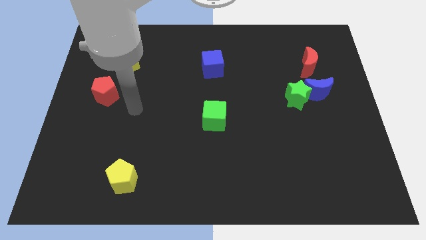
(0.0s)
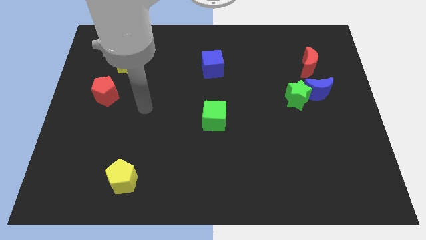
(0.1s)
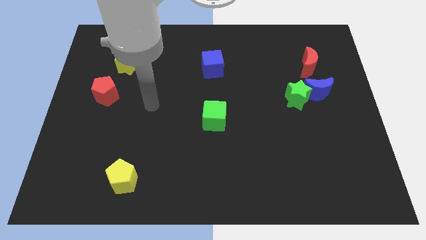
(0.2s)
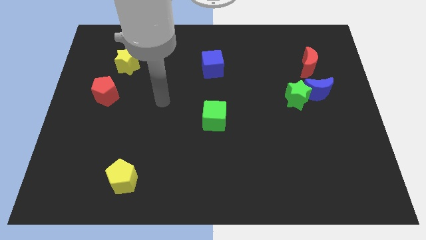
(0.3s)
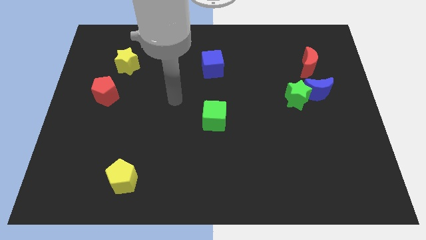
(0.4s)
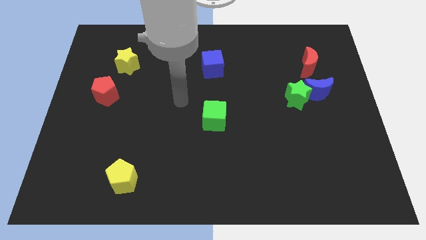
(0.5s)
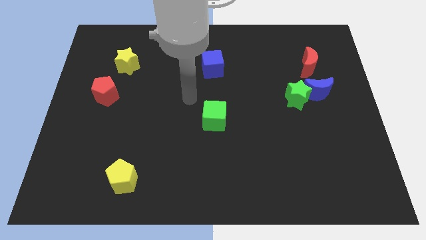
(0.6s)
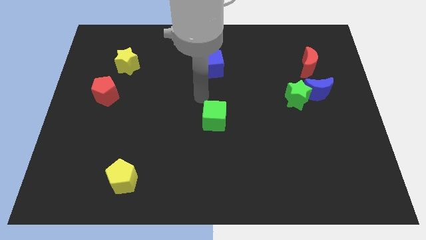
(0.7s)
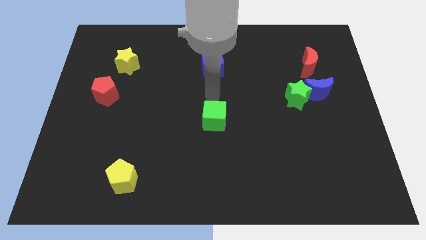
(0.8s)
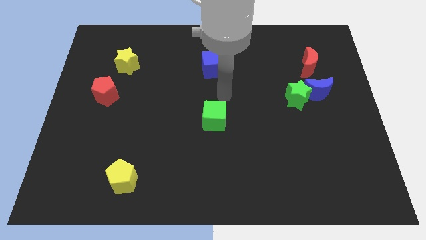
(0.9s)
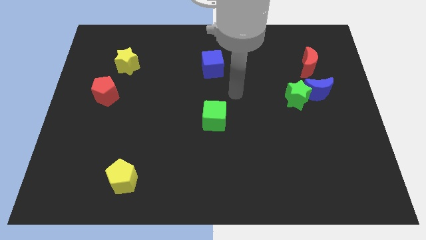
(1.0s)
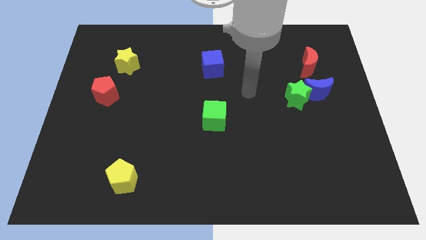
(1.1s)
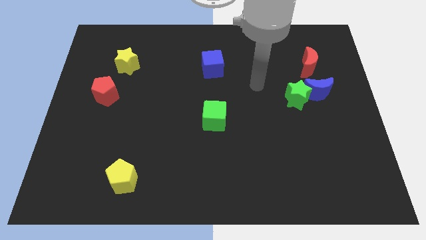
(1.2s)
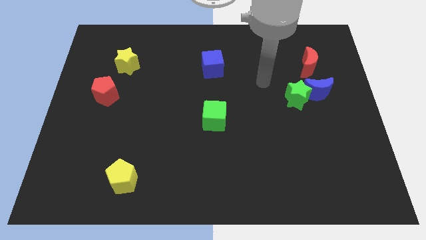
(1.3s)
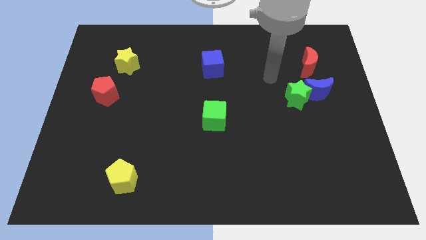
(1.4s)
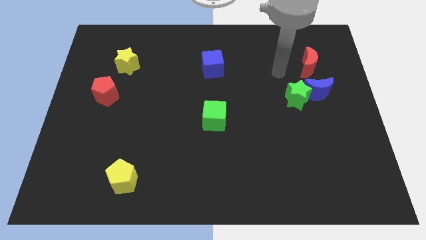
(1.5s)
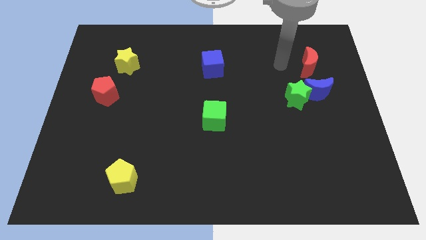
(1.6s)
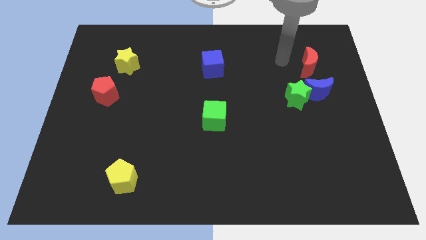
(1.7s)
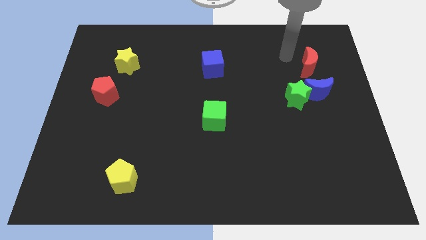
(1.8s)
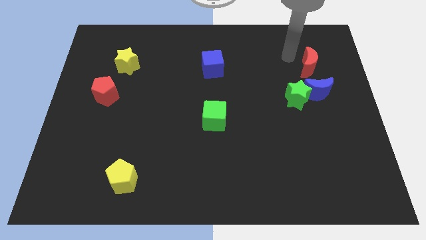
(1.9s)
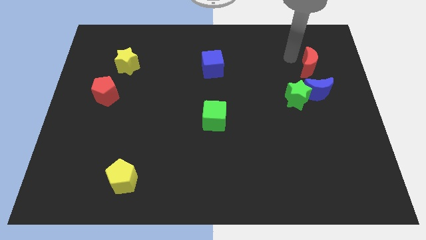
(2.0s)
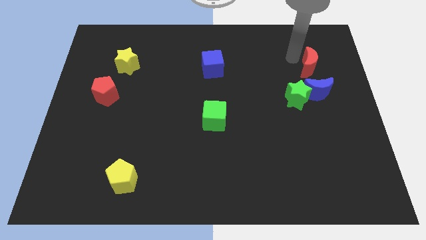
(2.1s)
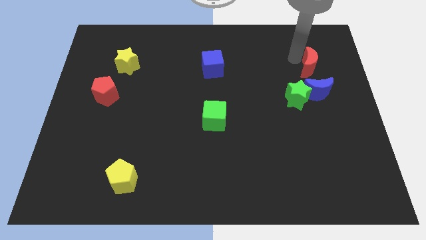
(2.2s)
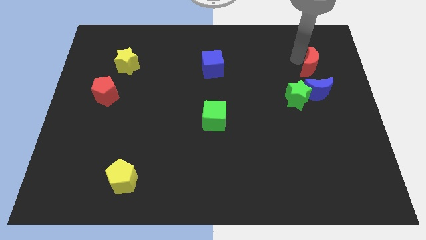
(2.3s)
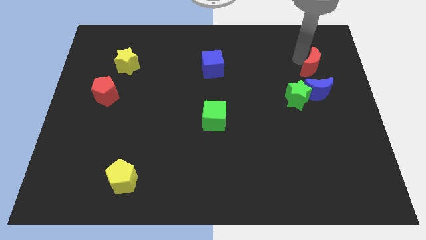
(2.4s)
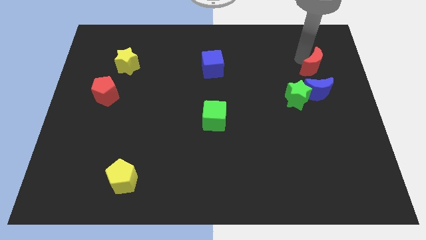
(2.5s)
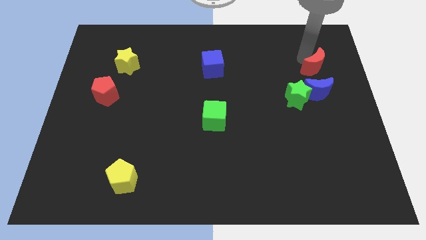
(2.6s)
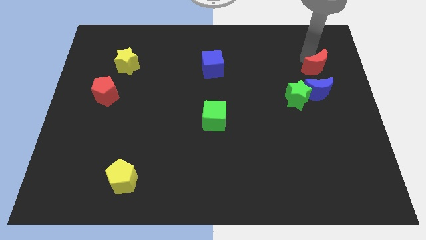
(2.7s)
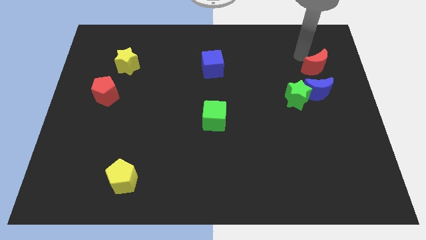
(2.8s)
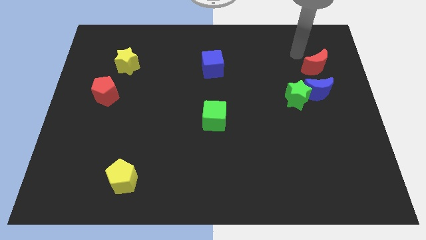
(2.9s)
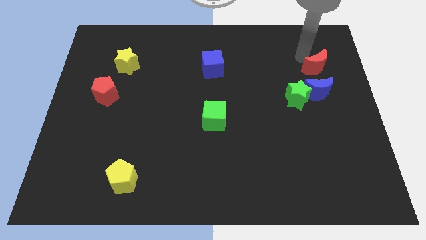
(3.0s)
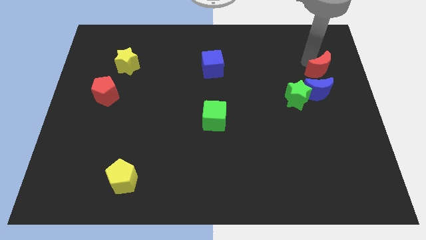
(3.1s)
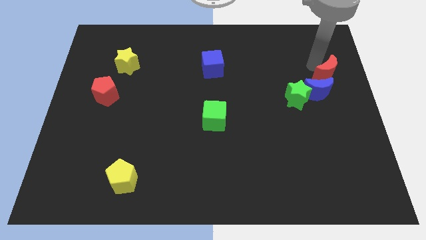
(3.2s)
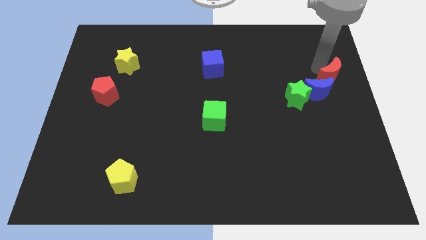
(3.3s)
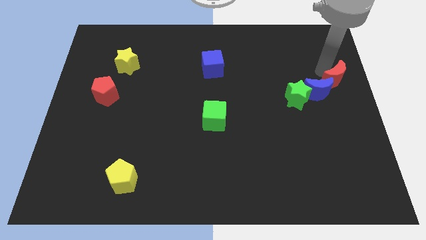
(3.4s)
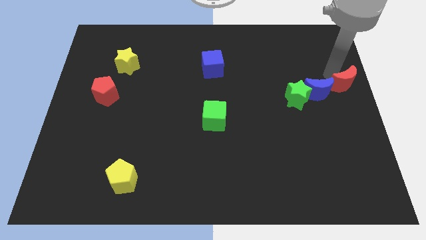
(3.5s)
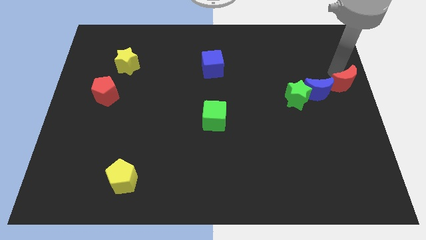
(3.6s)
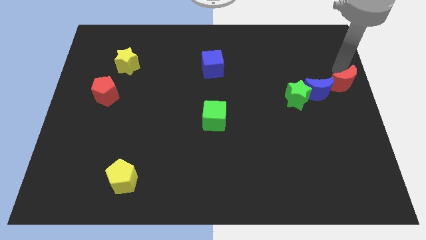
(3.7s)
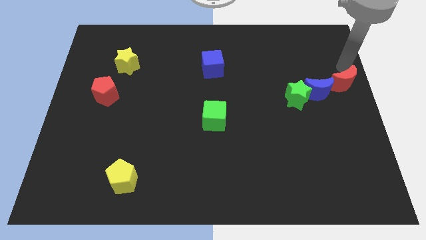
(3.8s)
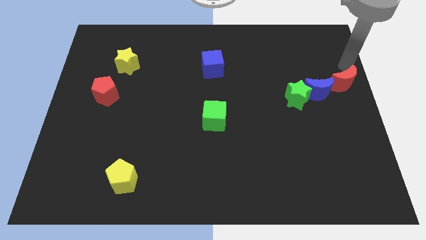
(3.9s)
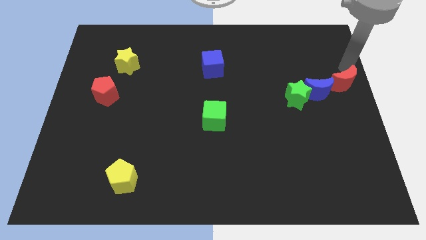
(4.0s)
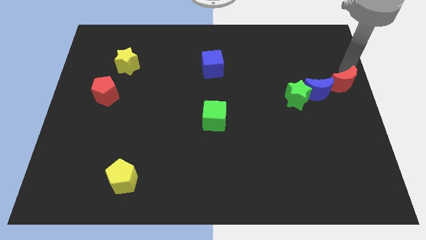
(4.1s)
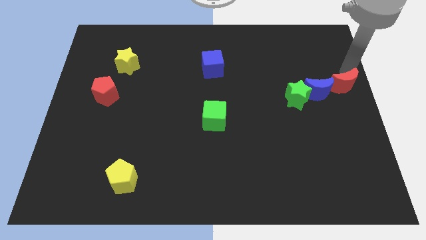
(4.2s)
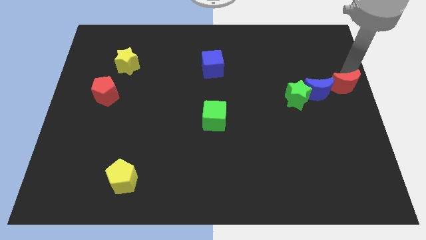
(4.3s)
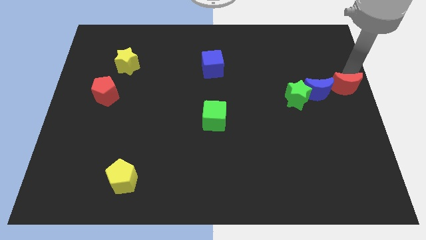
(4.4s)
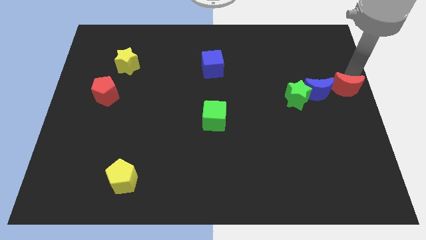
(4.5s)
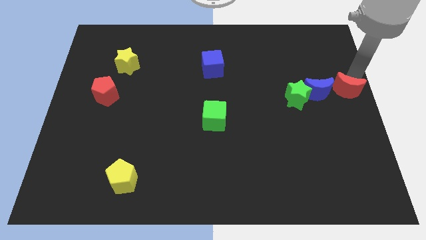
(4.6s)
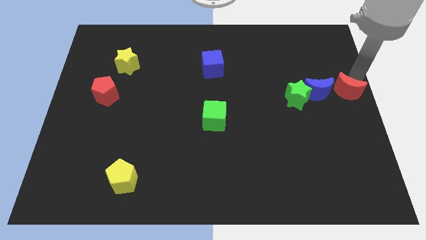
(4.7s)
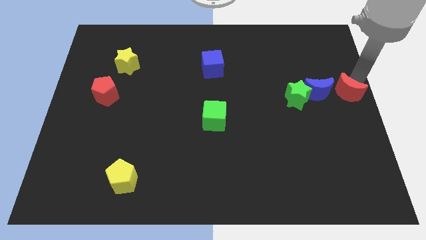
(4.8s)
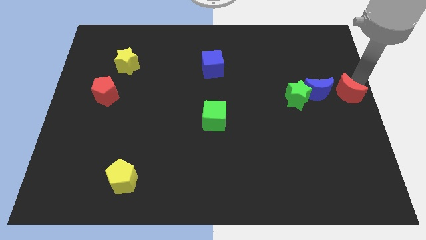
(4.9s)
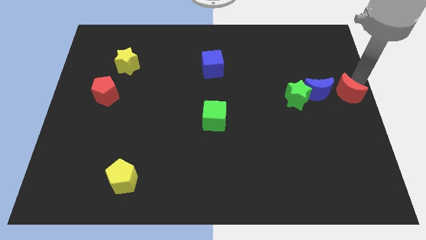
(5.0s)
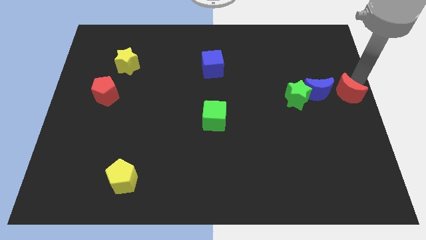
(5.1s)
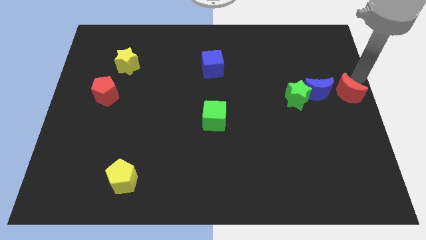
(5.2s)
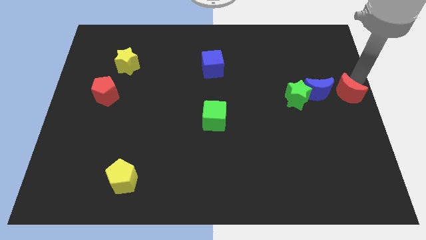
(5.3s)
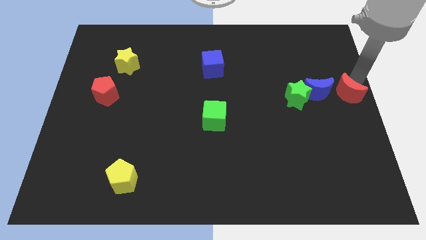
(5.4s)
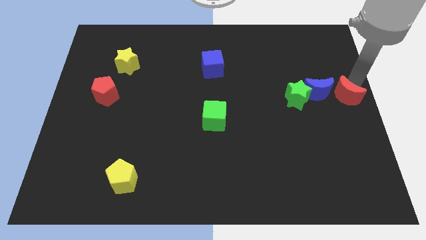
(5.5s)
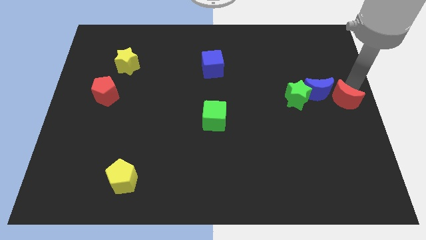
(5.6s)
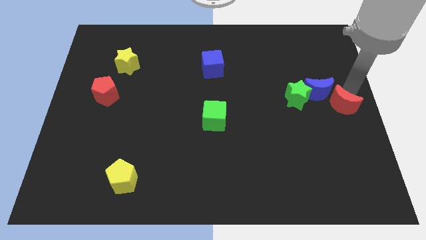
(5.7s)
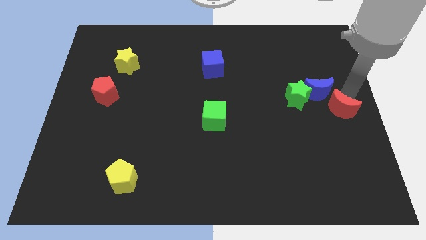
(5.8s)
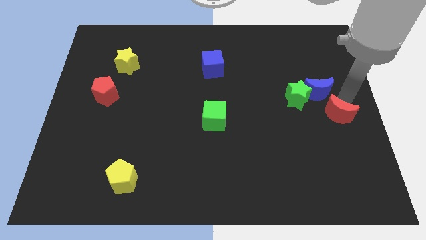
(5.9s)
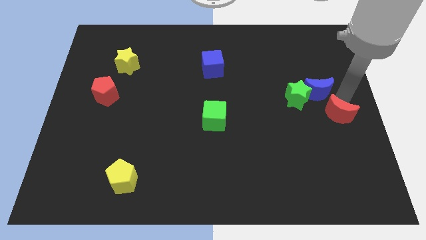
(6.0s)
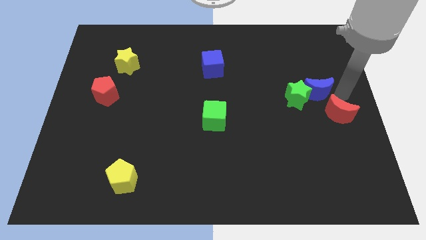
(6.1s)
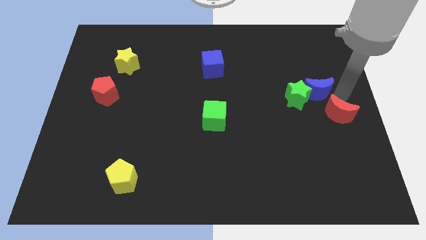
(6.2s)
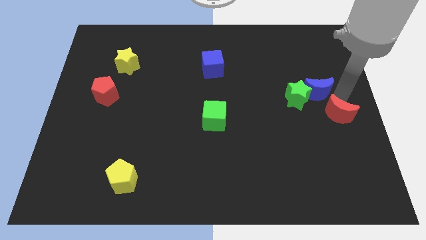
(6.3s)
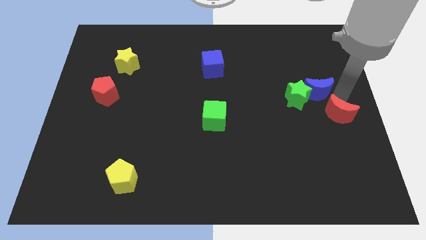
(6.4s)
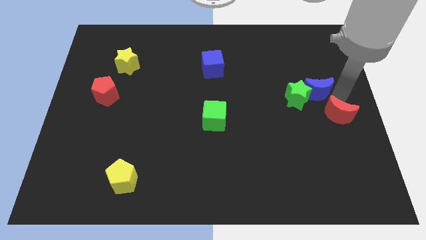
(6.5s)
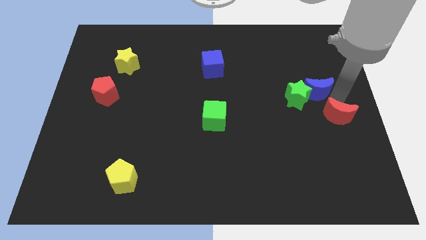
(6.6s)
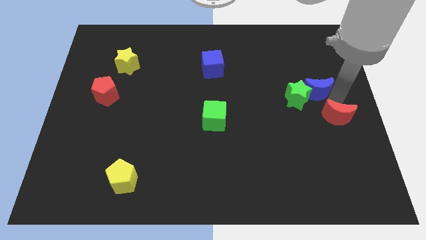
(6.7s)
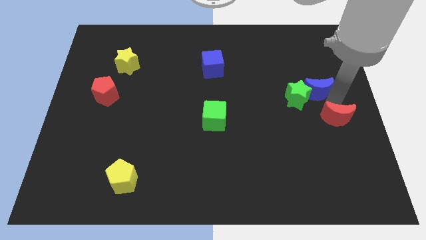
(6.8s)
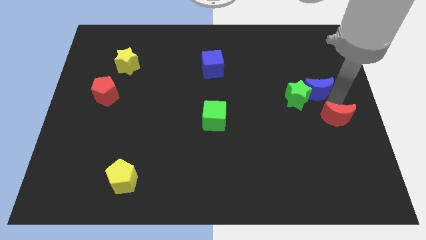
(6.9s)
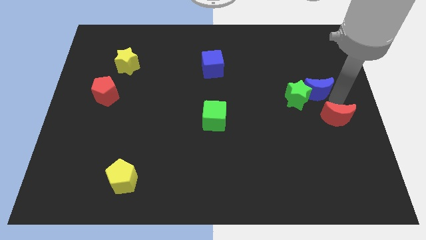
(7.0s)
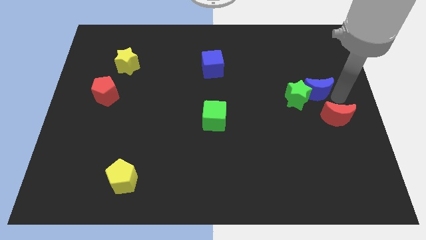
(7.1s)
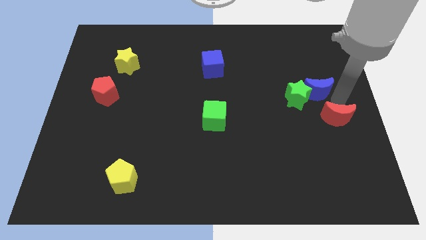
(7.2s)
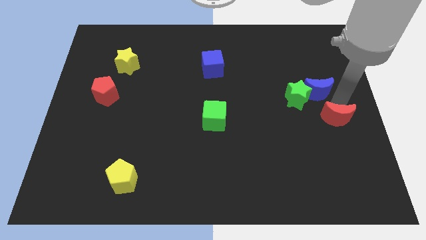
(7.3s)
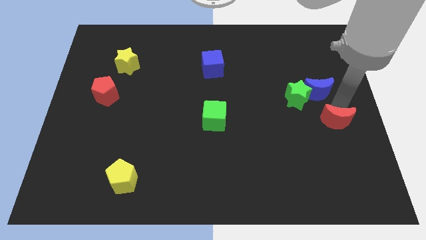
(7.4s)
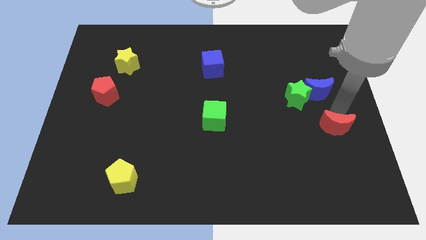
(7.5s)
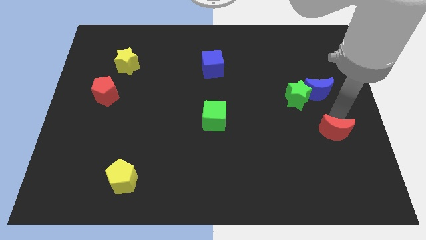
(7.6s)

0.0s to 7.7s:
slide the red moon down
